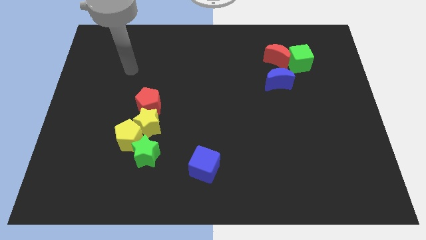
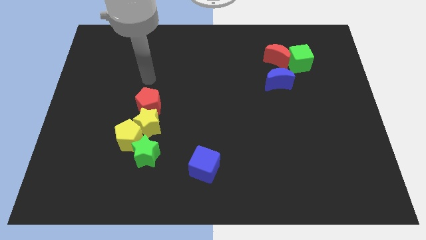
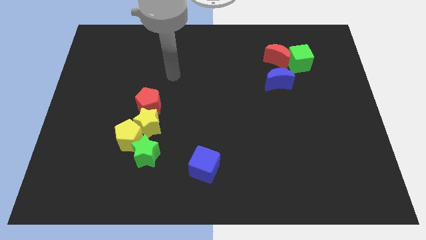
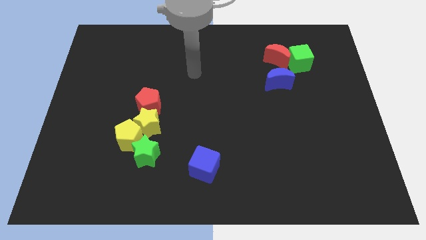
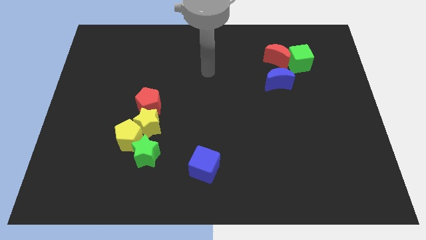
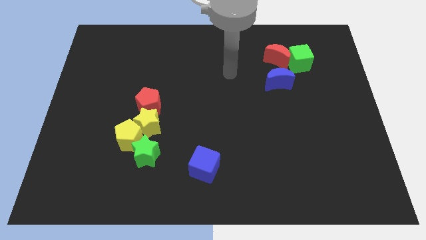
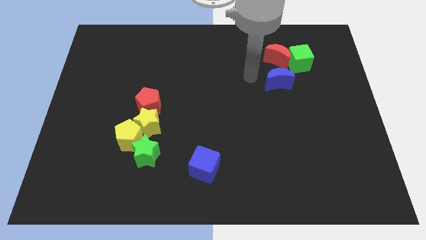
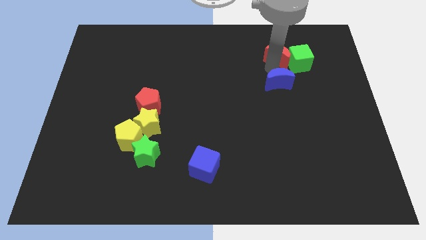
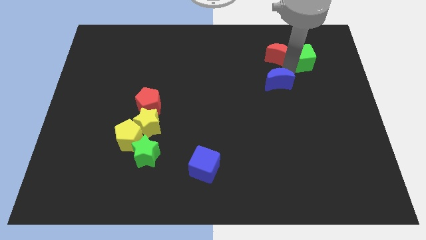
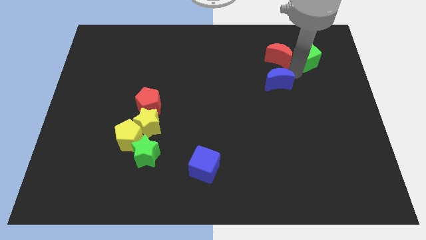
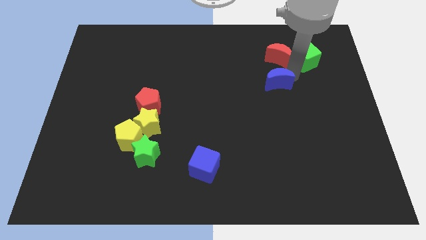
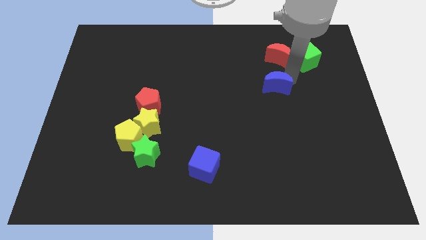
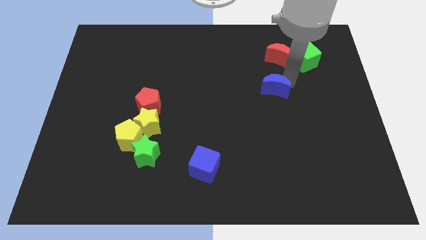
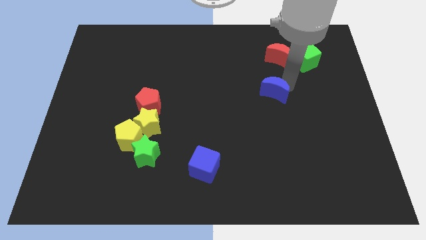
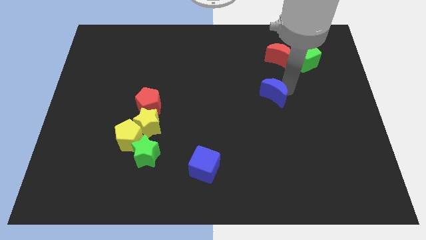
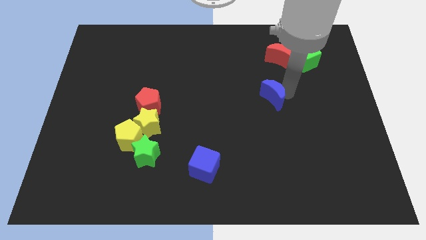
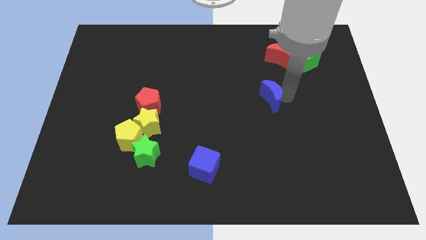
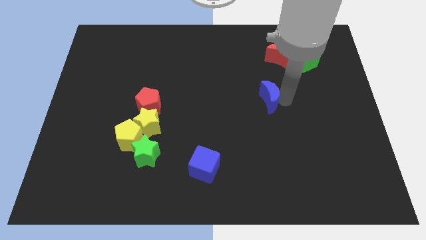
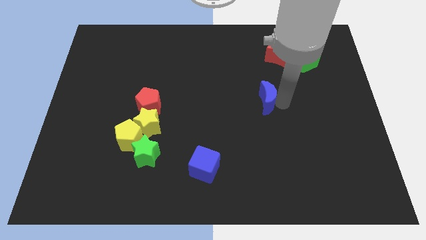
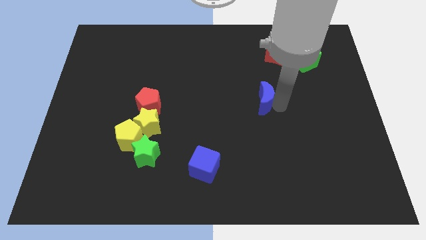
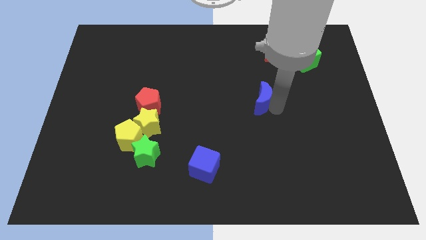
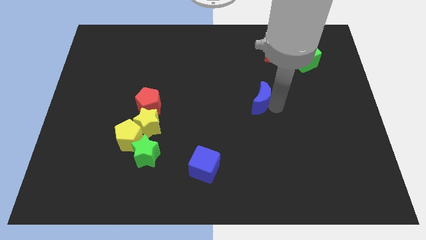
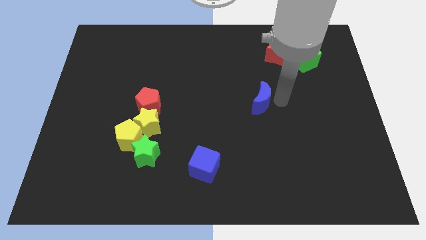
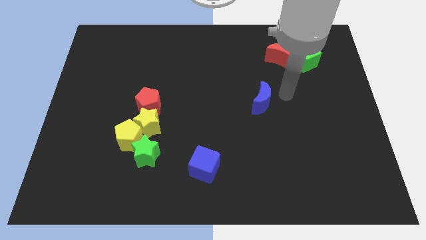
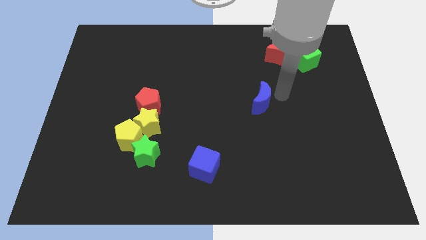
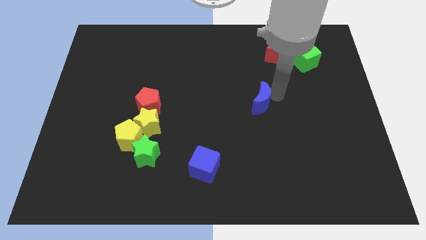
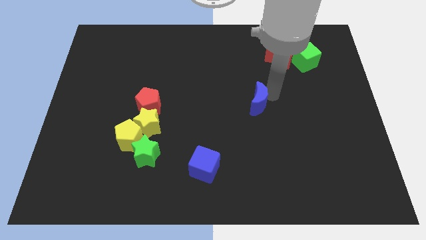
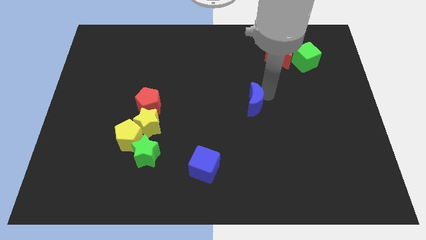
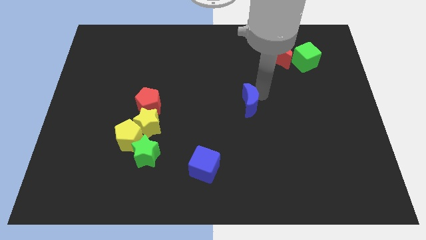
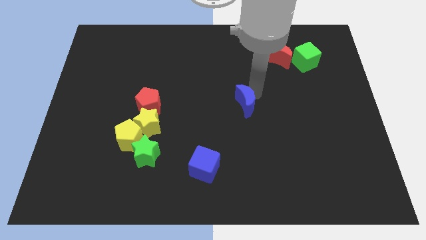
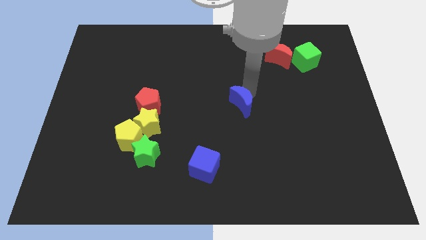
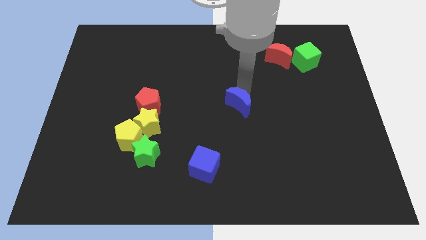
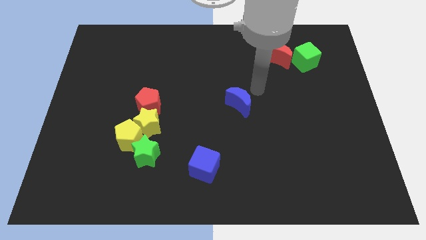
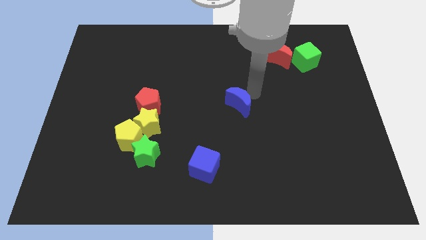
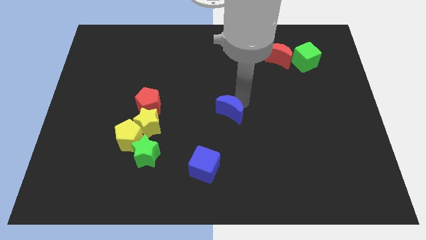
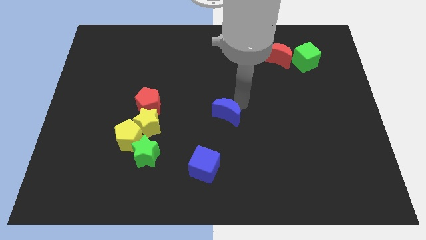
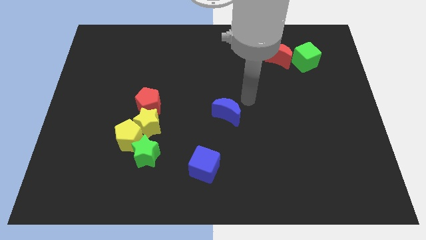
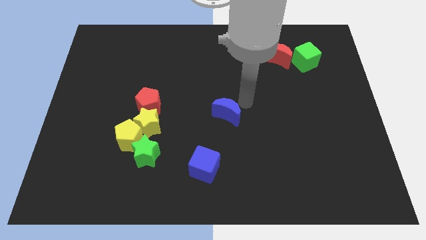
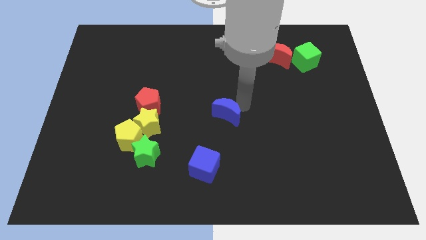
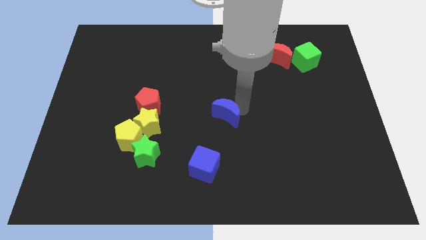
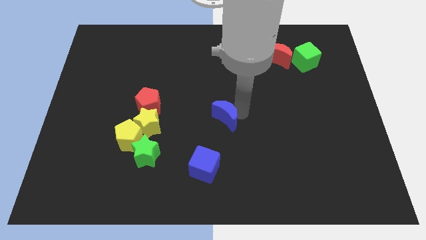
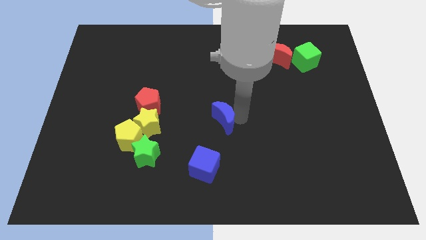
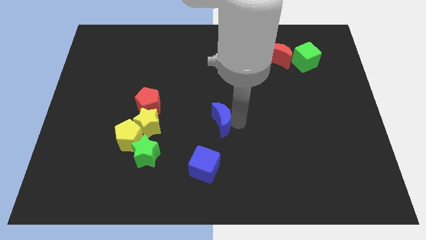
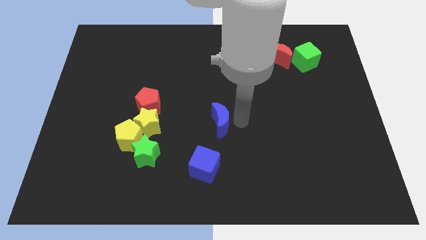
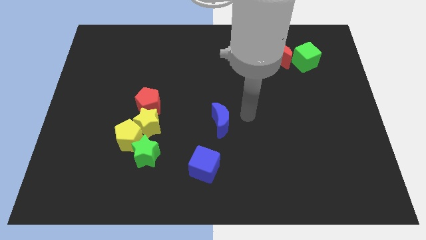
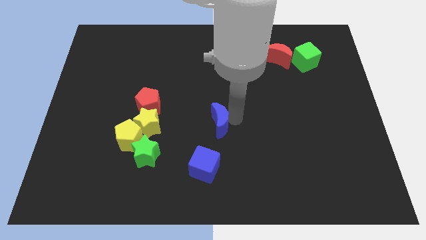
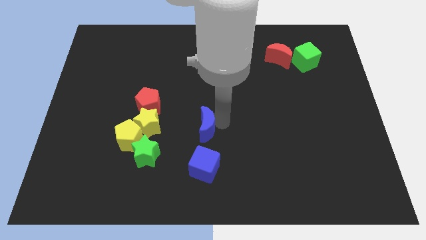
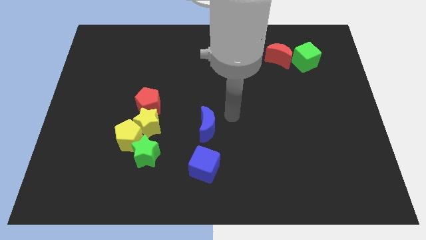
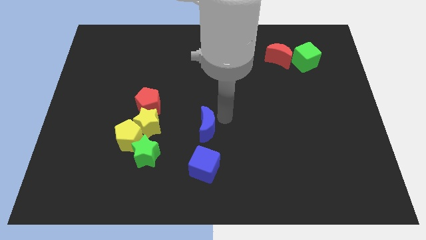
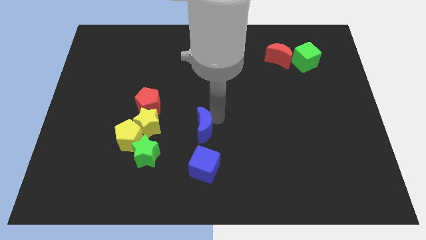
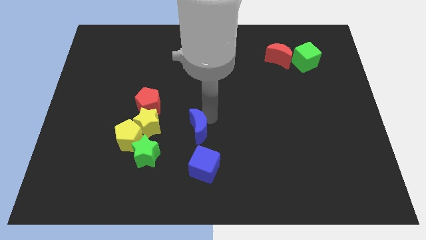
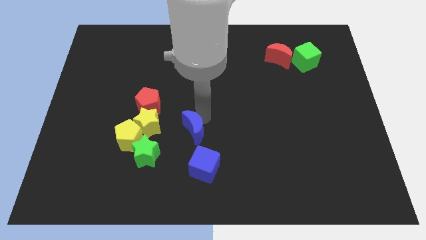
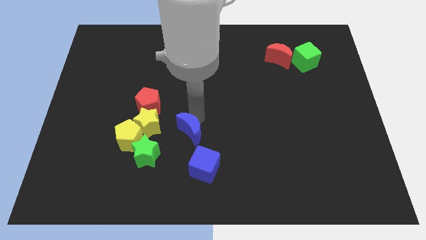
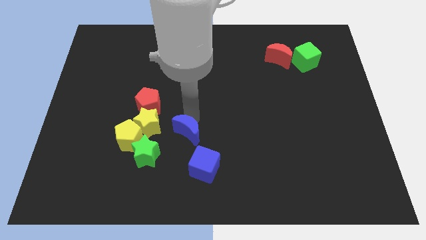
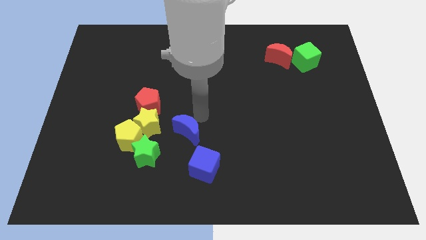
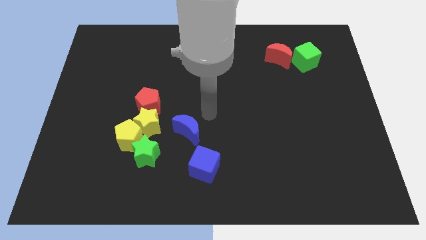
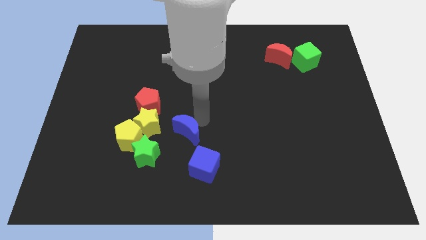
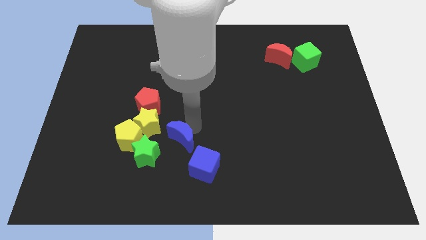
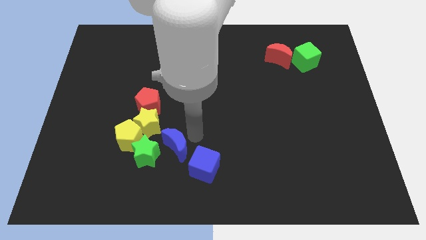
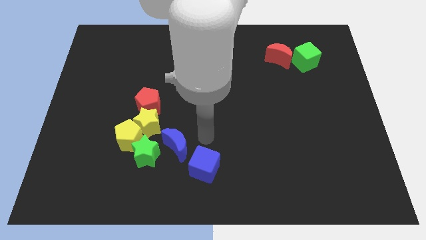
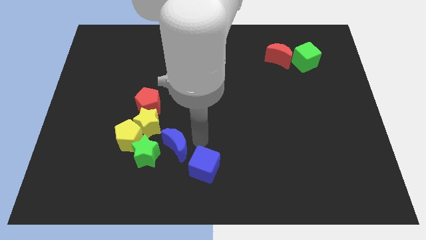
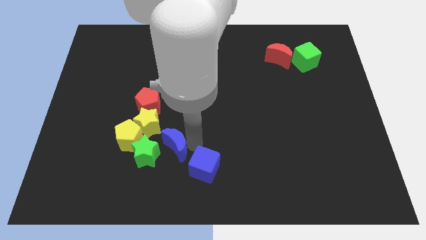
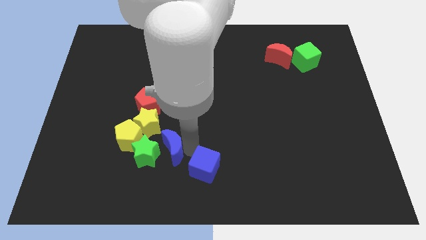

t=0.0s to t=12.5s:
slide the blue moon to the green star

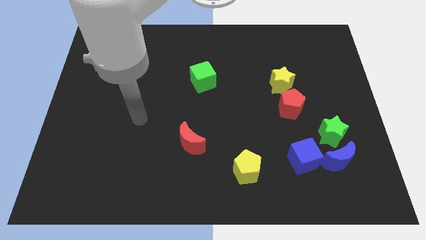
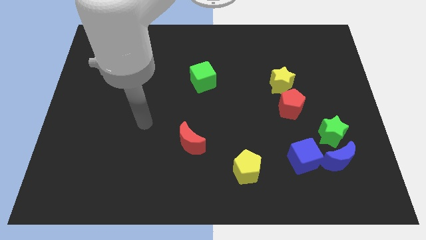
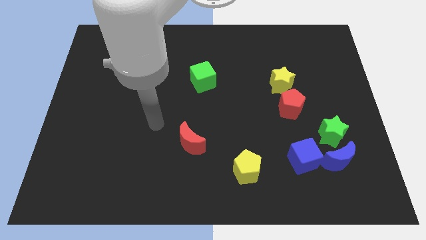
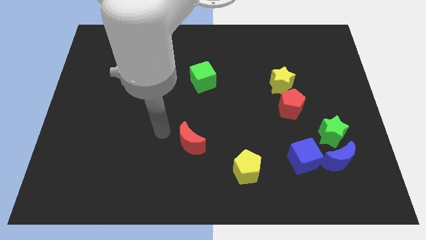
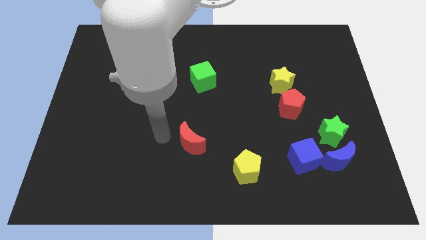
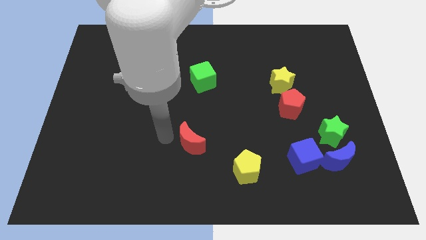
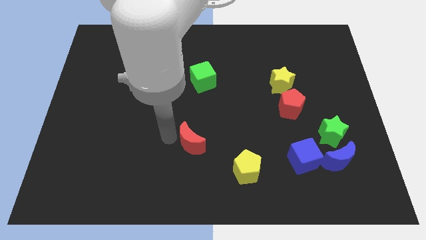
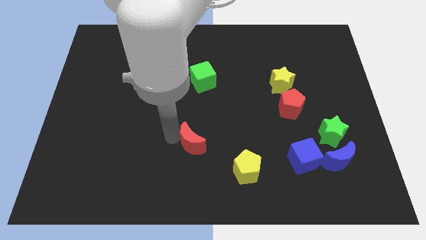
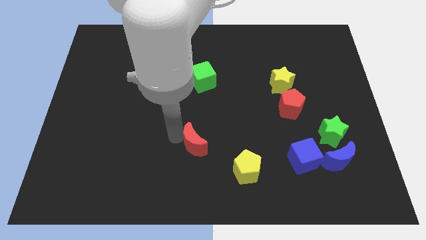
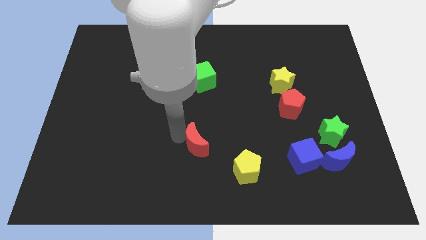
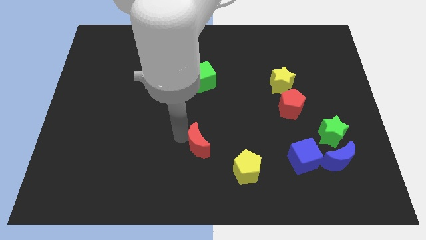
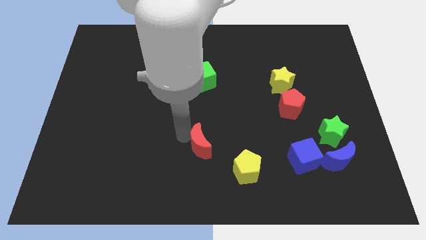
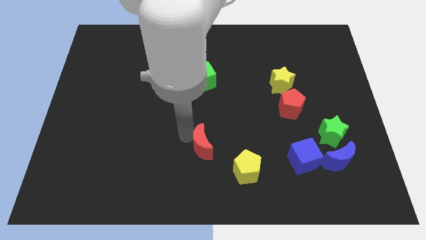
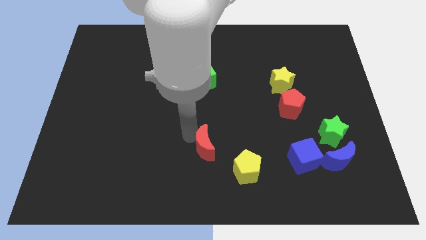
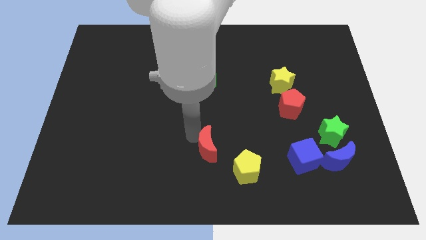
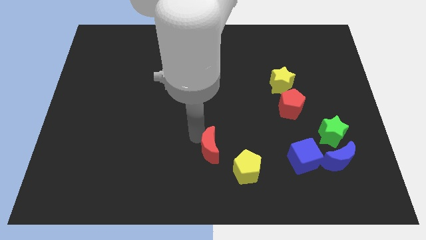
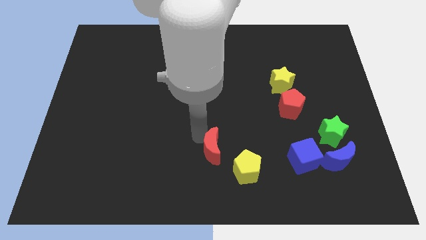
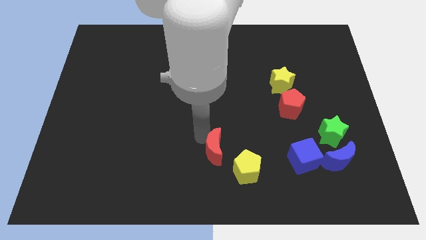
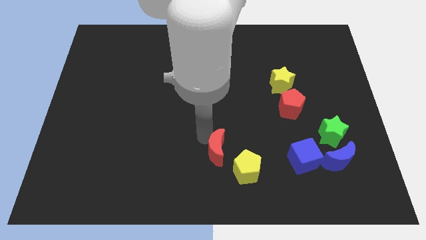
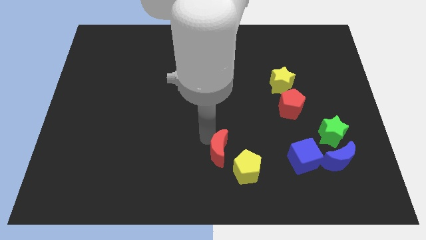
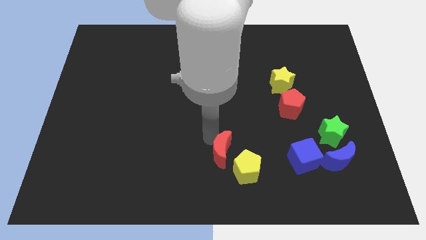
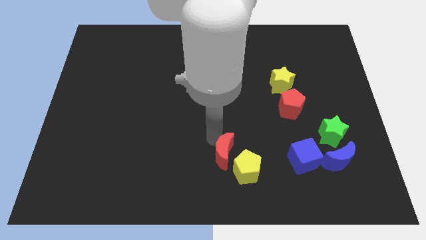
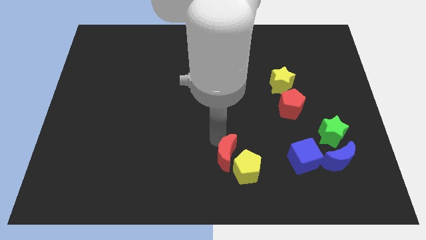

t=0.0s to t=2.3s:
put the red moon close to the yellow pentagon
